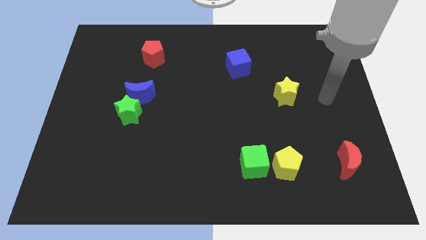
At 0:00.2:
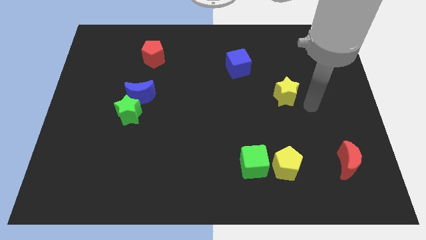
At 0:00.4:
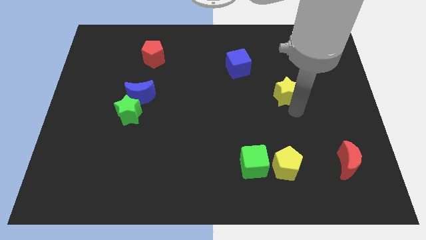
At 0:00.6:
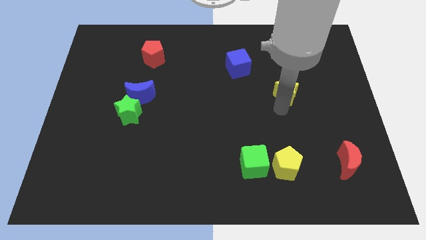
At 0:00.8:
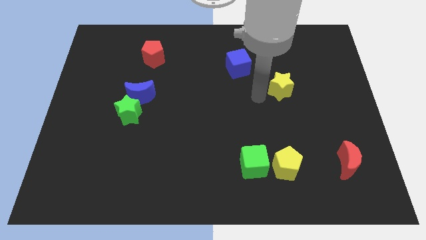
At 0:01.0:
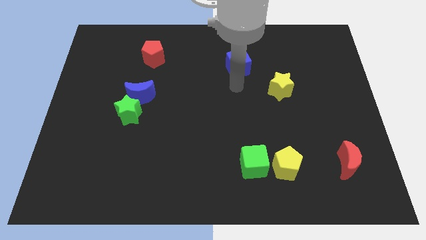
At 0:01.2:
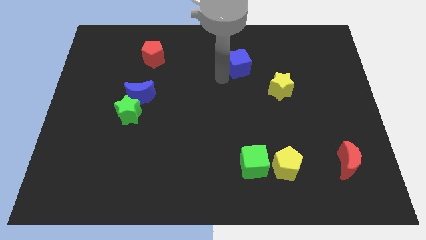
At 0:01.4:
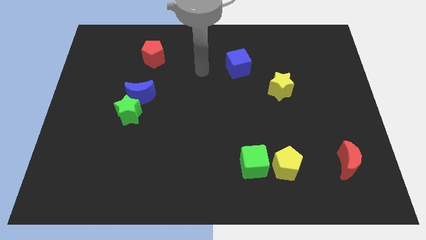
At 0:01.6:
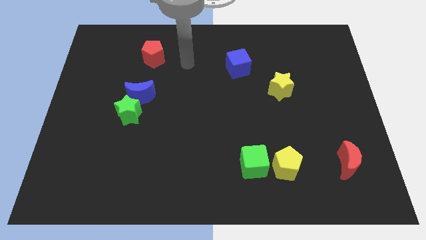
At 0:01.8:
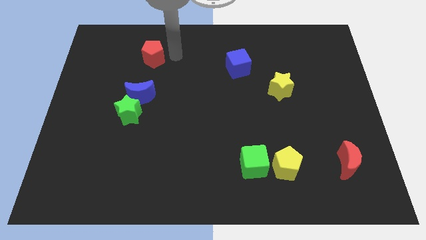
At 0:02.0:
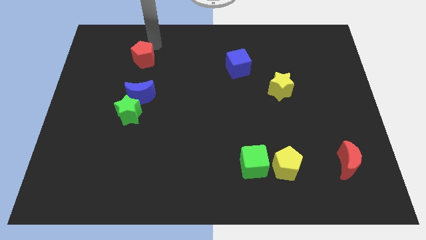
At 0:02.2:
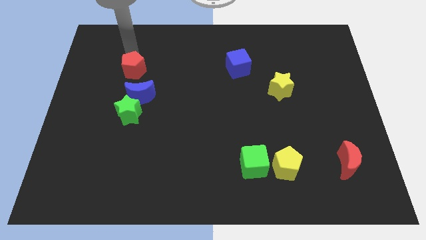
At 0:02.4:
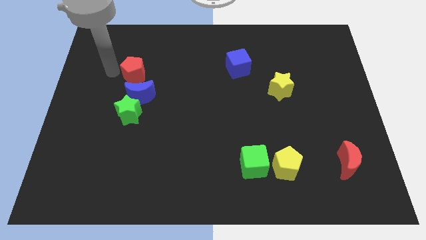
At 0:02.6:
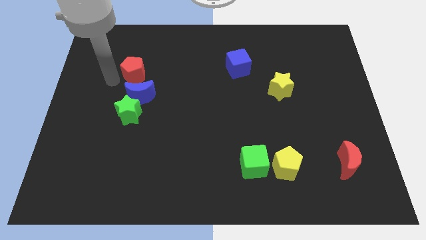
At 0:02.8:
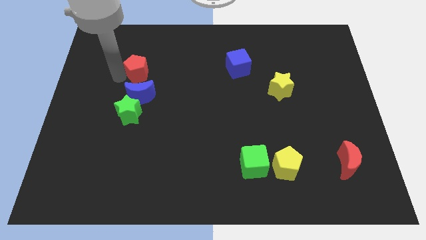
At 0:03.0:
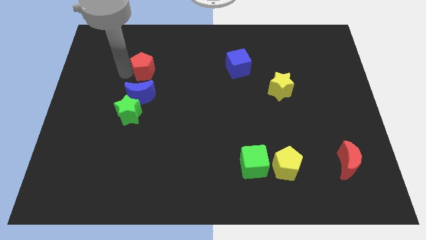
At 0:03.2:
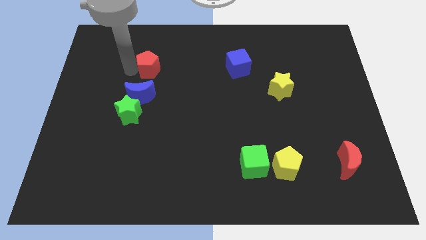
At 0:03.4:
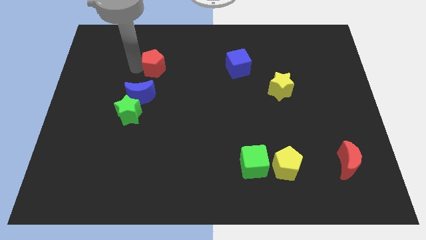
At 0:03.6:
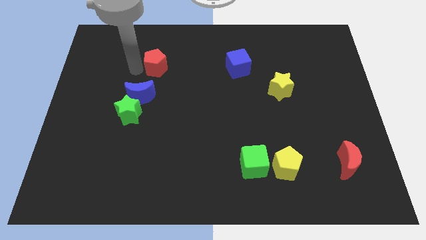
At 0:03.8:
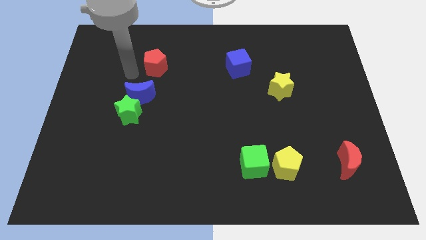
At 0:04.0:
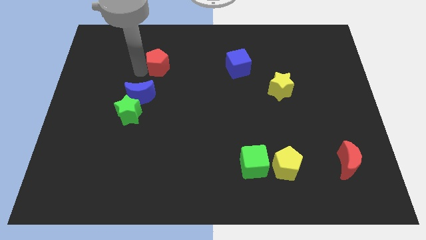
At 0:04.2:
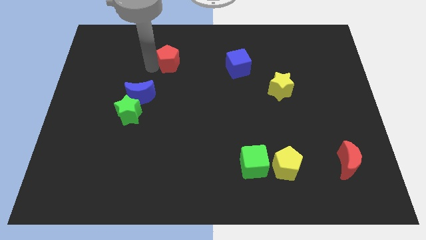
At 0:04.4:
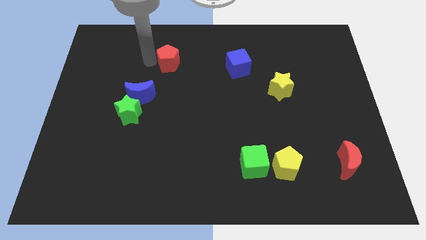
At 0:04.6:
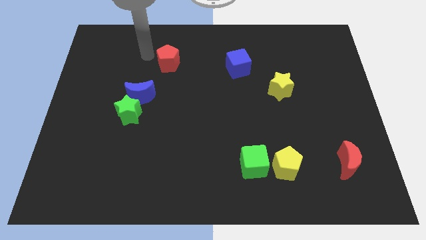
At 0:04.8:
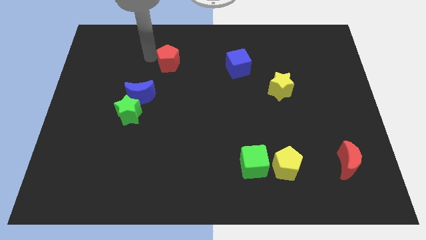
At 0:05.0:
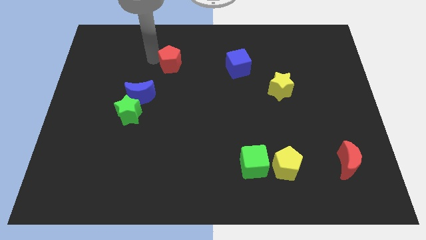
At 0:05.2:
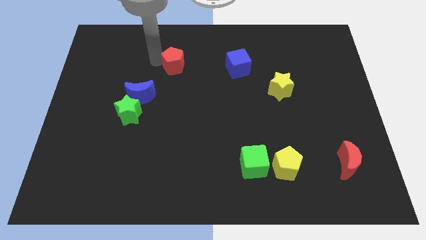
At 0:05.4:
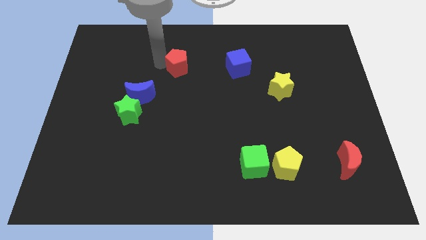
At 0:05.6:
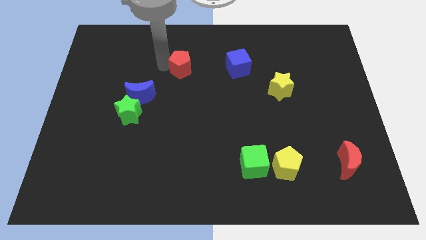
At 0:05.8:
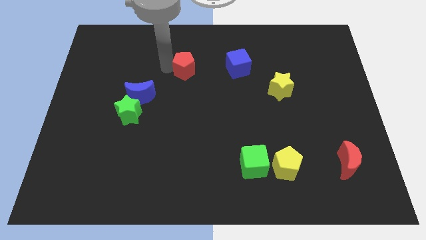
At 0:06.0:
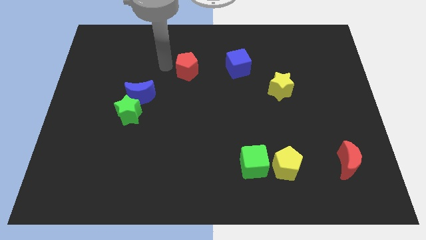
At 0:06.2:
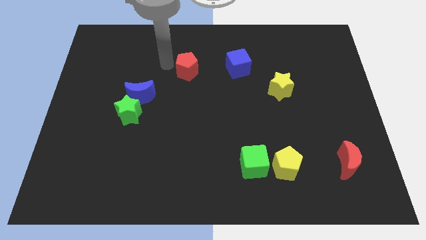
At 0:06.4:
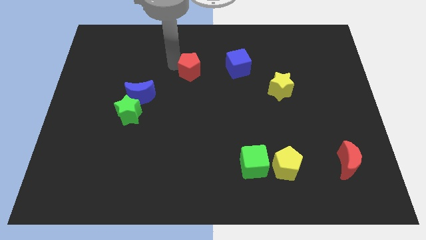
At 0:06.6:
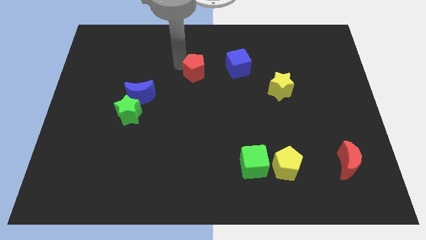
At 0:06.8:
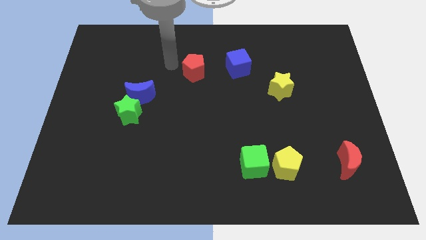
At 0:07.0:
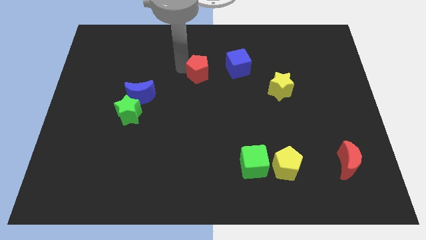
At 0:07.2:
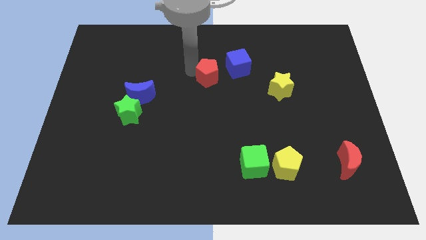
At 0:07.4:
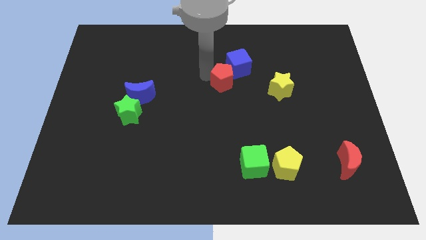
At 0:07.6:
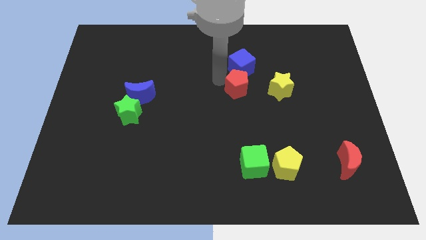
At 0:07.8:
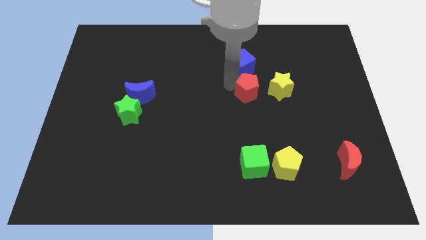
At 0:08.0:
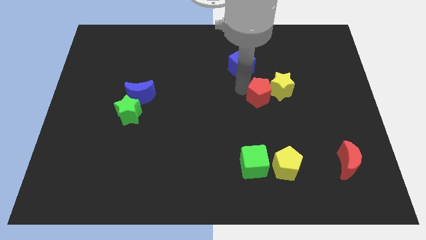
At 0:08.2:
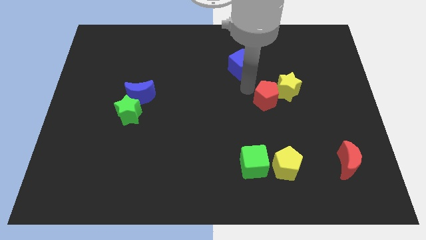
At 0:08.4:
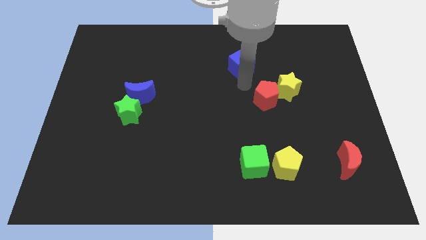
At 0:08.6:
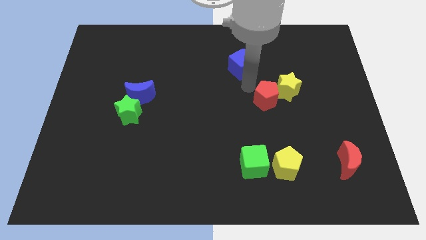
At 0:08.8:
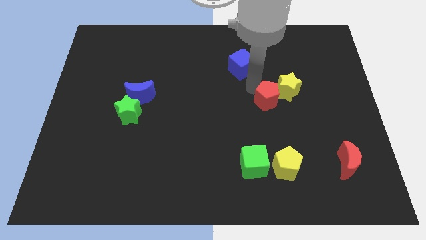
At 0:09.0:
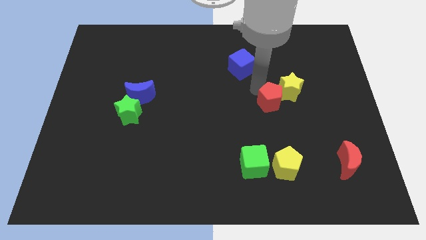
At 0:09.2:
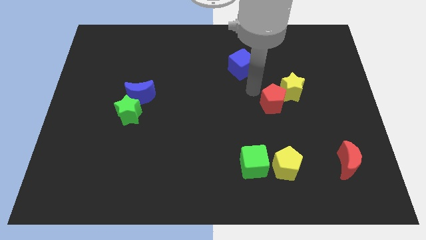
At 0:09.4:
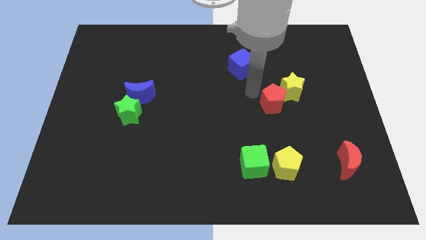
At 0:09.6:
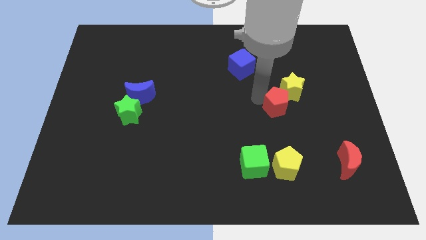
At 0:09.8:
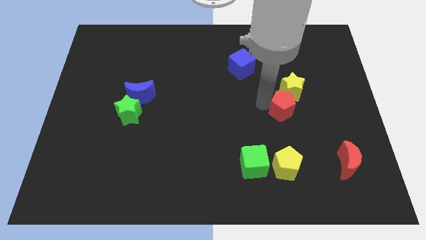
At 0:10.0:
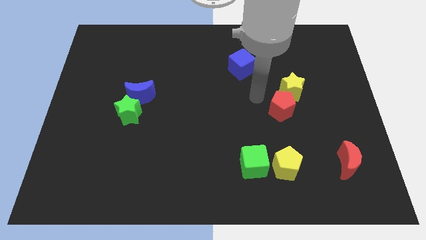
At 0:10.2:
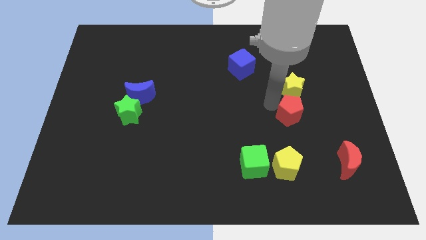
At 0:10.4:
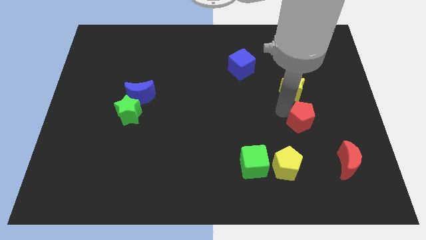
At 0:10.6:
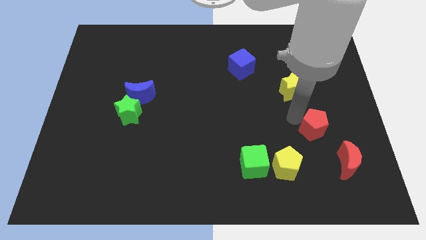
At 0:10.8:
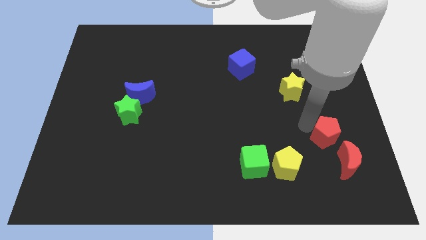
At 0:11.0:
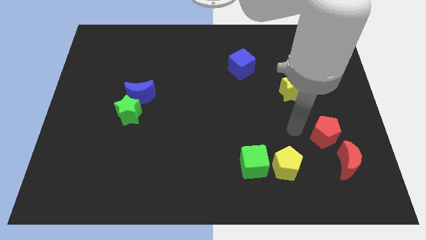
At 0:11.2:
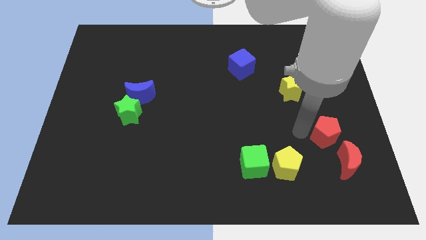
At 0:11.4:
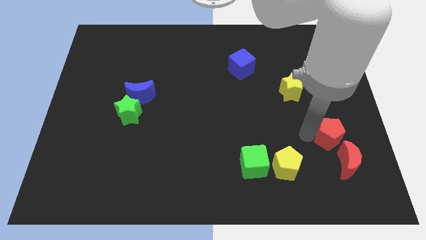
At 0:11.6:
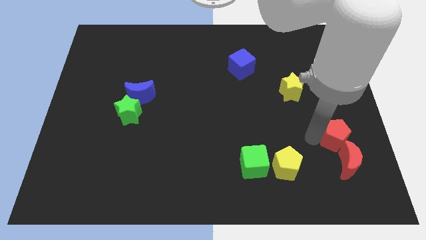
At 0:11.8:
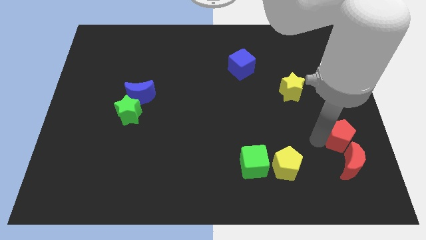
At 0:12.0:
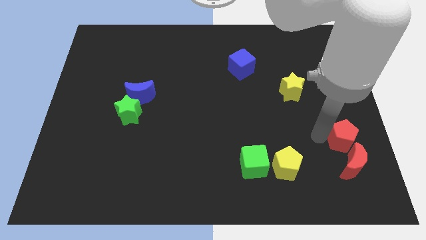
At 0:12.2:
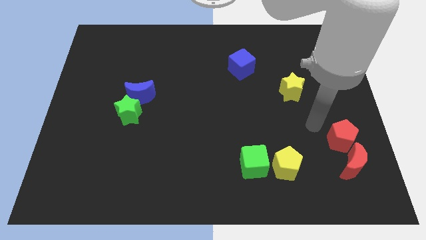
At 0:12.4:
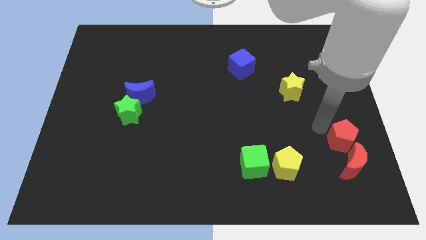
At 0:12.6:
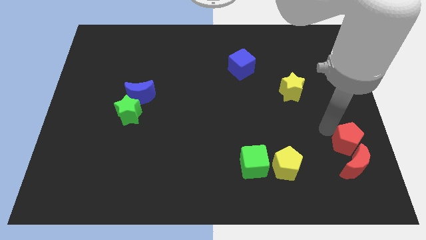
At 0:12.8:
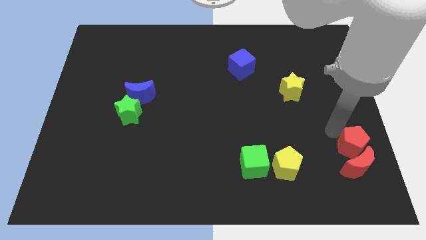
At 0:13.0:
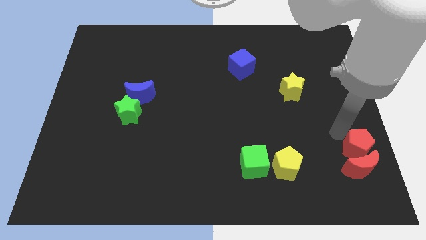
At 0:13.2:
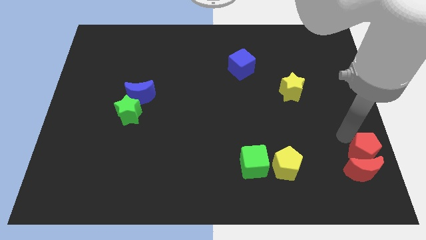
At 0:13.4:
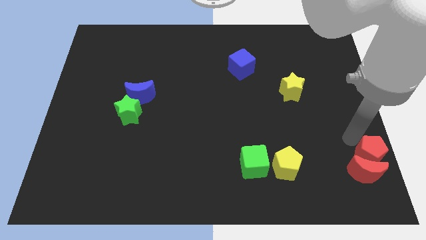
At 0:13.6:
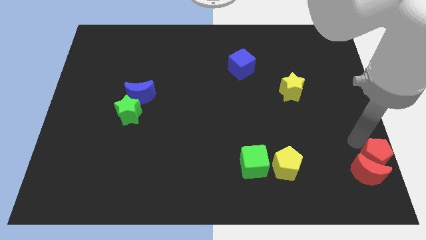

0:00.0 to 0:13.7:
slide the red pentagon to the bottom right corner

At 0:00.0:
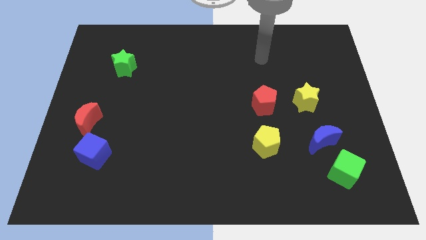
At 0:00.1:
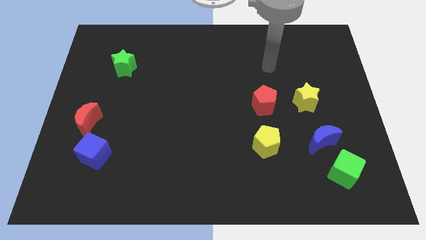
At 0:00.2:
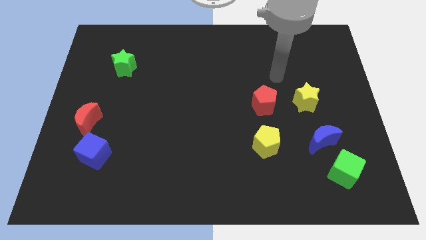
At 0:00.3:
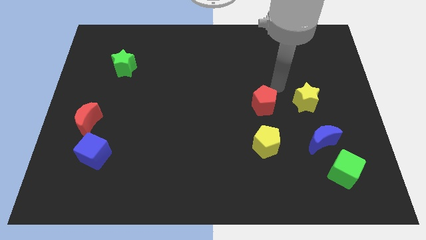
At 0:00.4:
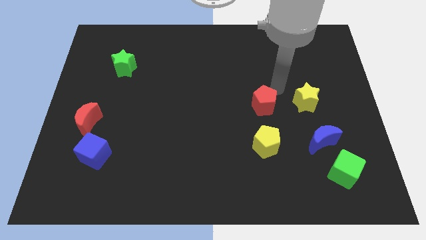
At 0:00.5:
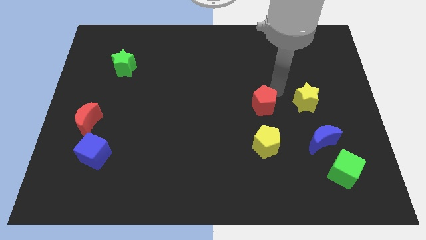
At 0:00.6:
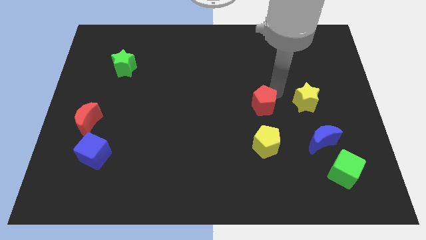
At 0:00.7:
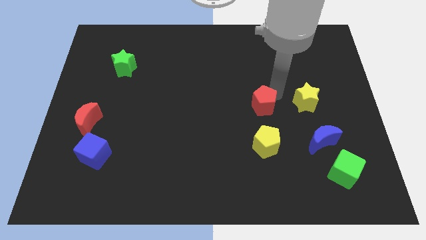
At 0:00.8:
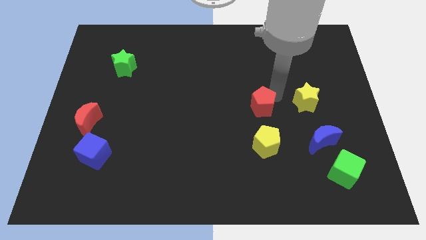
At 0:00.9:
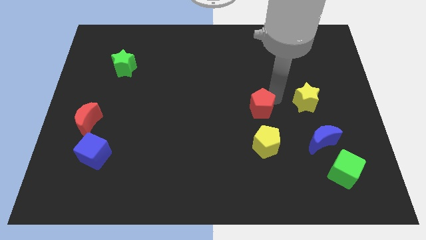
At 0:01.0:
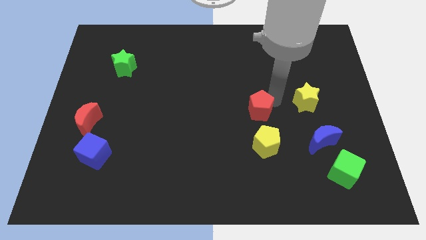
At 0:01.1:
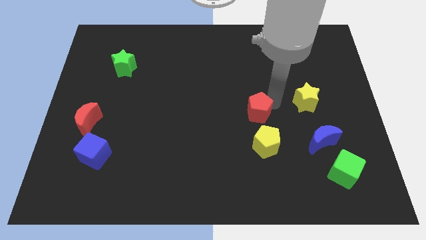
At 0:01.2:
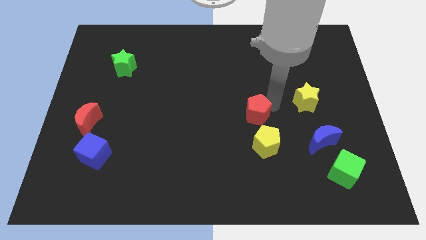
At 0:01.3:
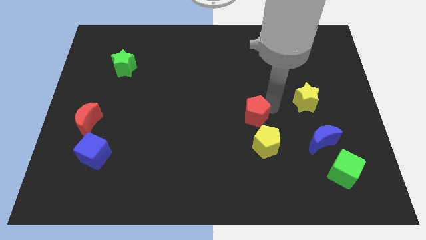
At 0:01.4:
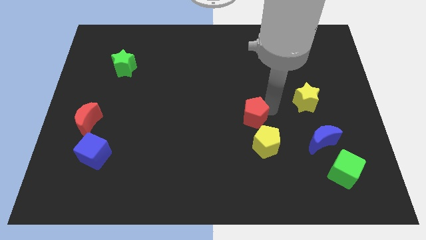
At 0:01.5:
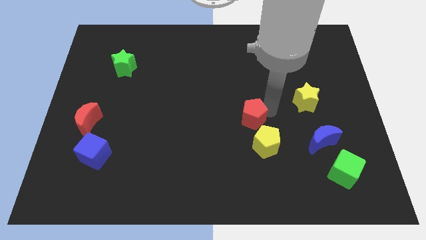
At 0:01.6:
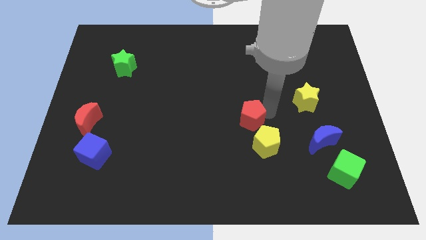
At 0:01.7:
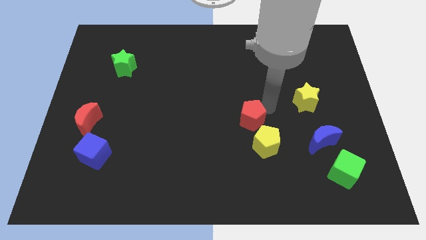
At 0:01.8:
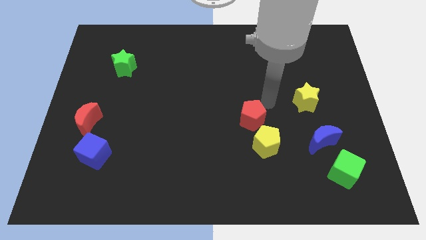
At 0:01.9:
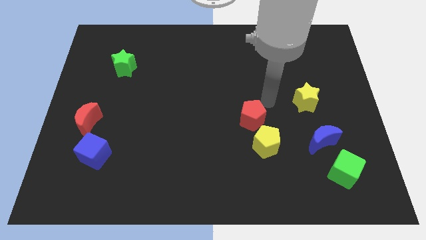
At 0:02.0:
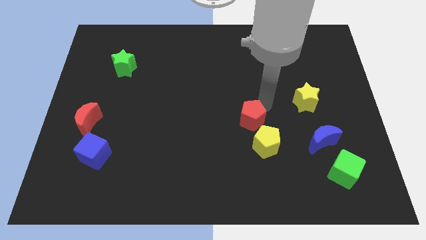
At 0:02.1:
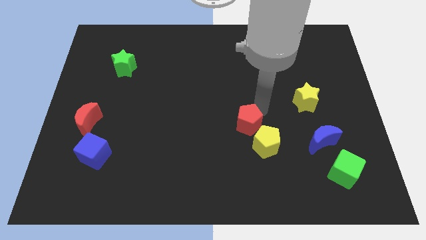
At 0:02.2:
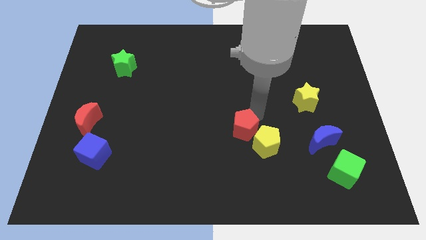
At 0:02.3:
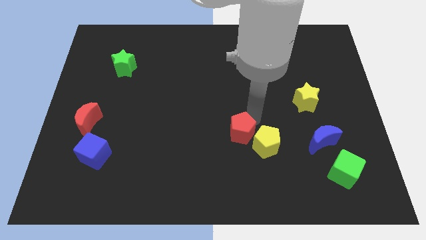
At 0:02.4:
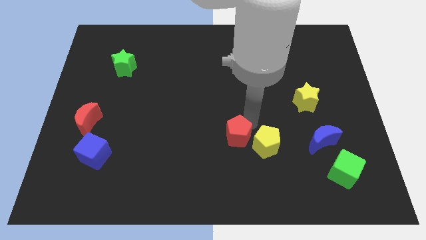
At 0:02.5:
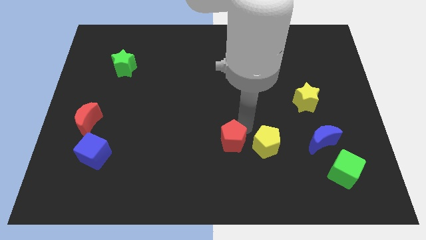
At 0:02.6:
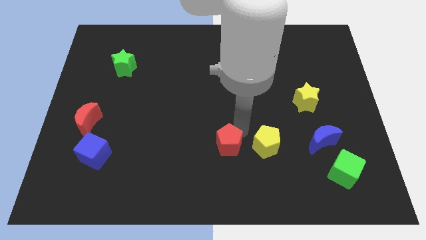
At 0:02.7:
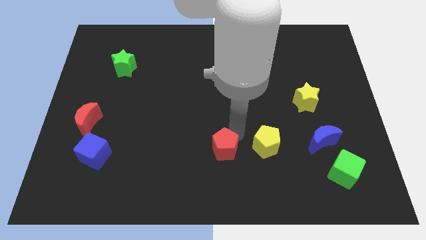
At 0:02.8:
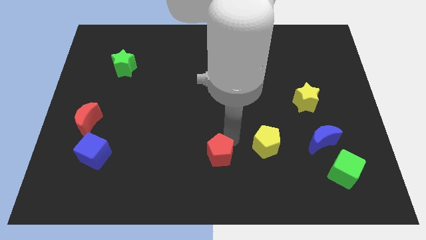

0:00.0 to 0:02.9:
put the red pentagon to the bottom side
